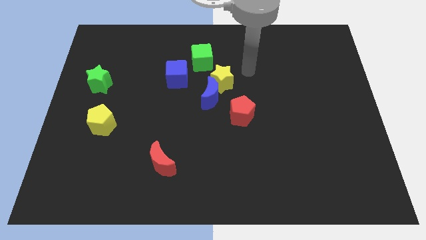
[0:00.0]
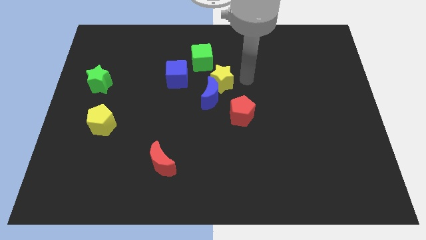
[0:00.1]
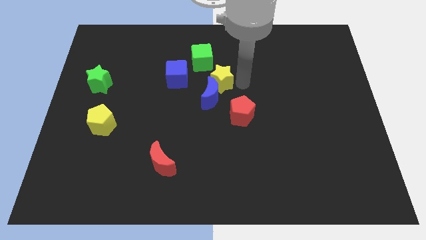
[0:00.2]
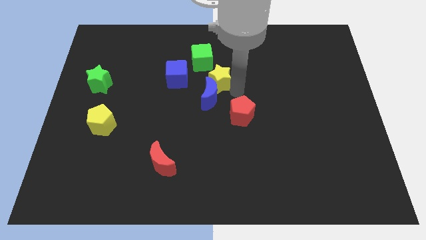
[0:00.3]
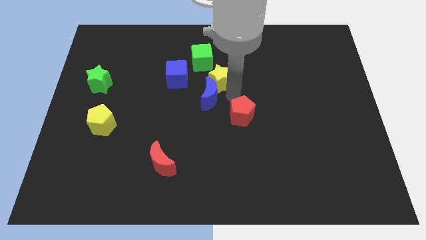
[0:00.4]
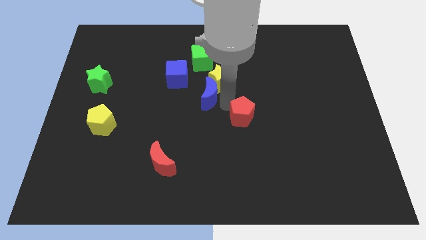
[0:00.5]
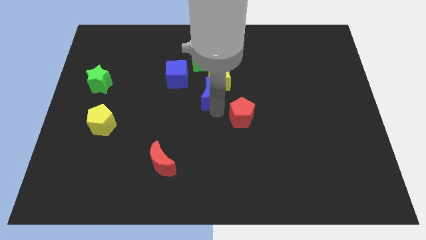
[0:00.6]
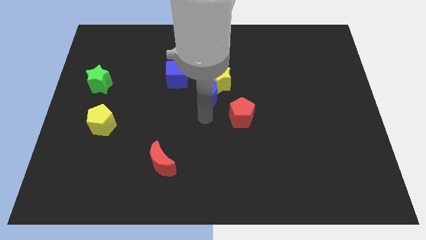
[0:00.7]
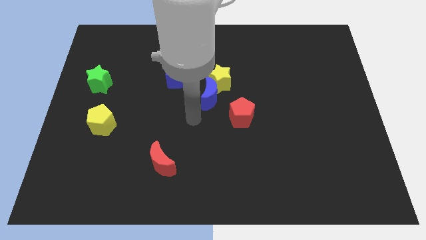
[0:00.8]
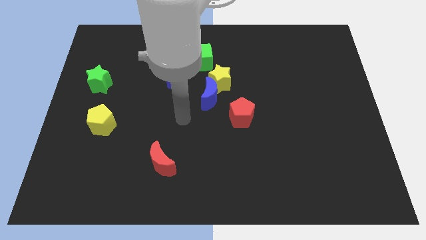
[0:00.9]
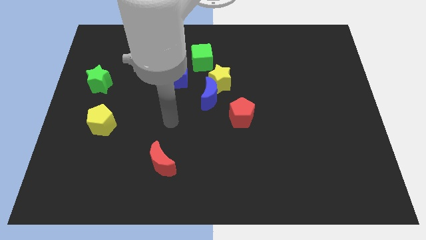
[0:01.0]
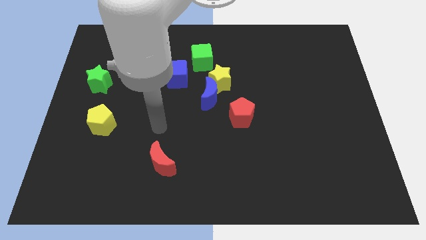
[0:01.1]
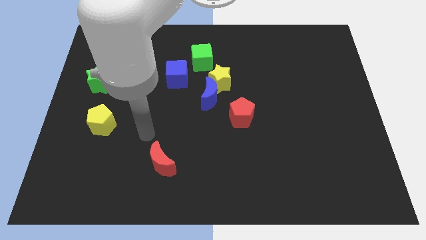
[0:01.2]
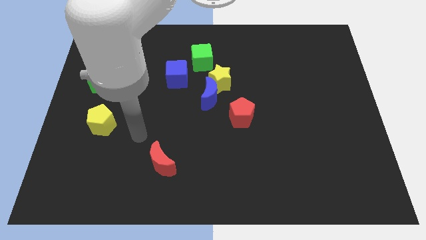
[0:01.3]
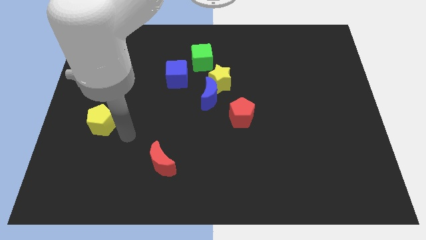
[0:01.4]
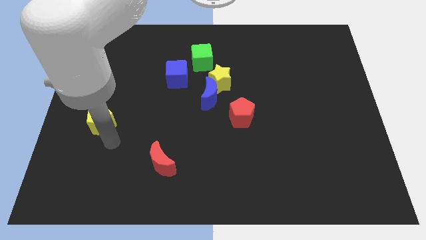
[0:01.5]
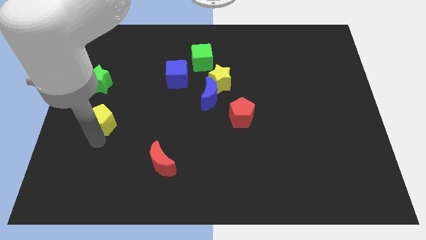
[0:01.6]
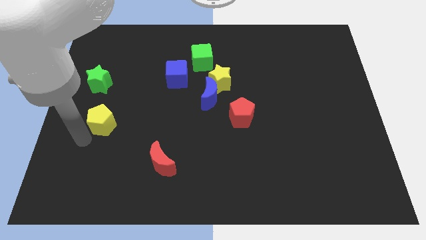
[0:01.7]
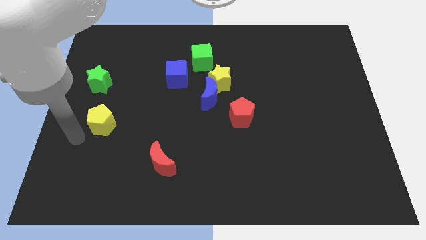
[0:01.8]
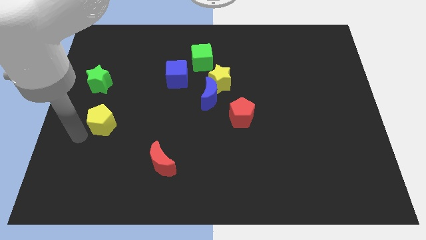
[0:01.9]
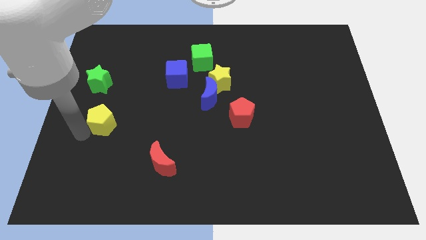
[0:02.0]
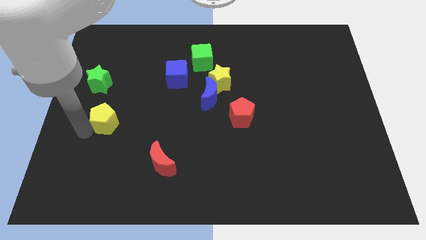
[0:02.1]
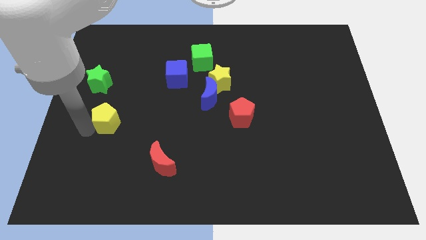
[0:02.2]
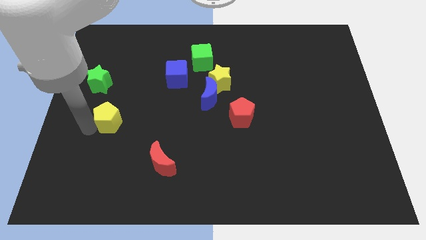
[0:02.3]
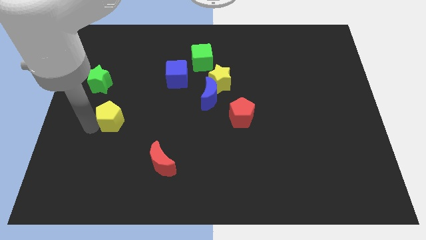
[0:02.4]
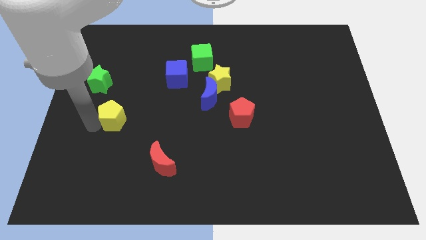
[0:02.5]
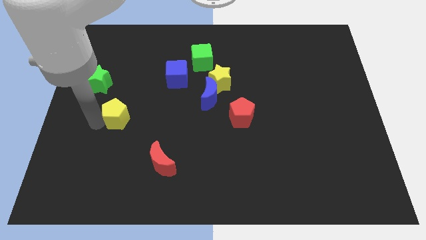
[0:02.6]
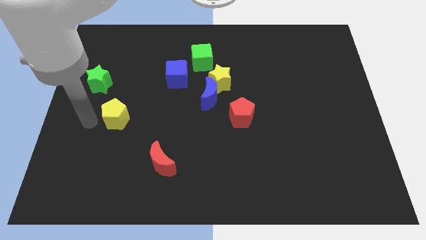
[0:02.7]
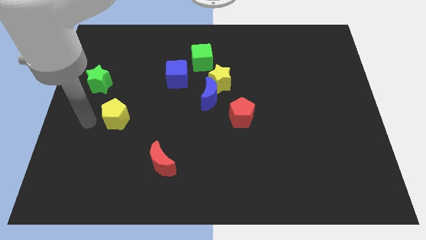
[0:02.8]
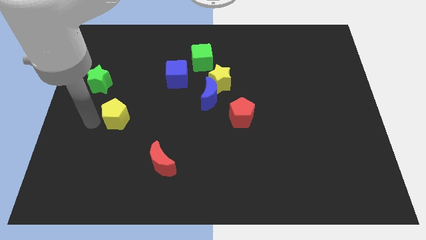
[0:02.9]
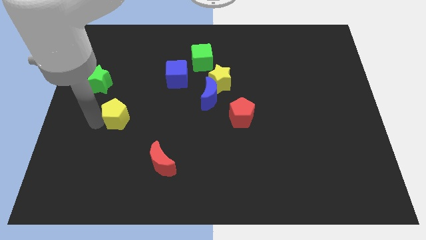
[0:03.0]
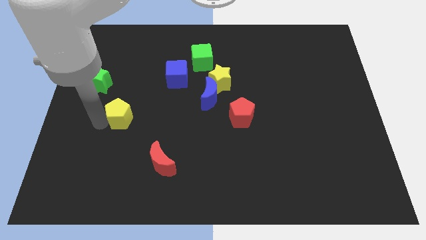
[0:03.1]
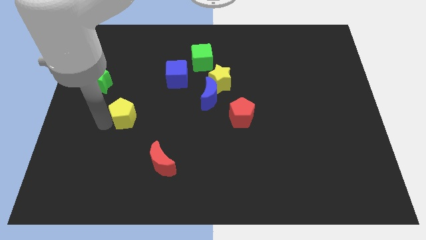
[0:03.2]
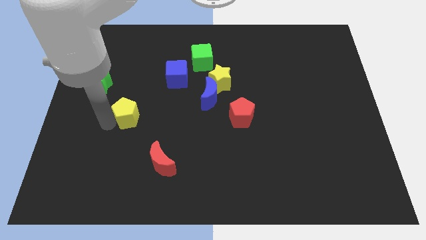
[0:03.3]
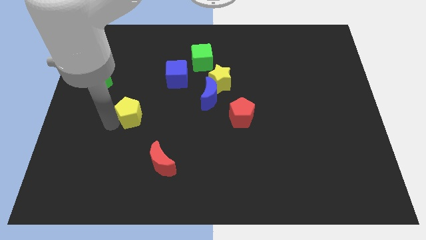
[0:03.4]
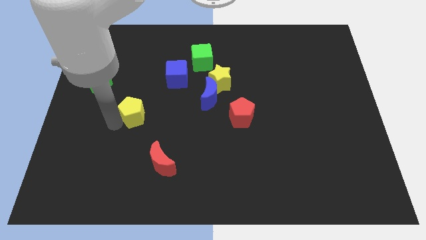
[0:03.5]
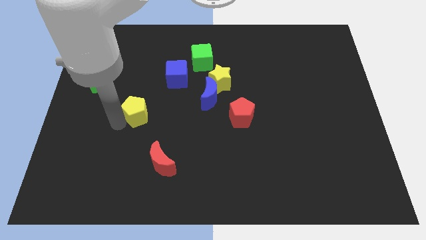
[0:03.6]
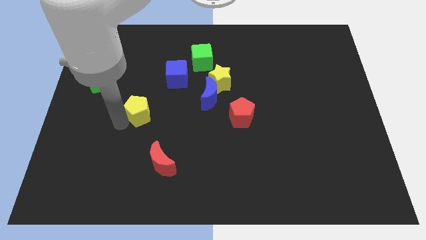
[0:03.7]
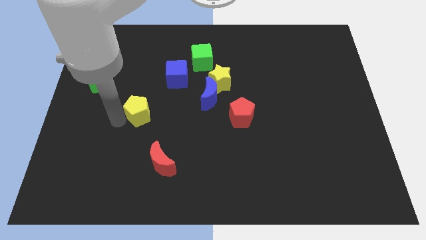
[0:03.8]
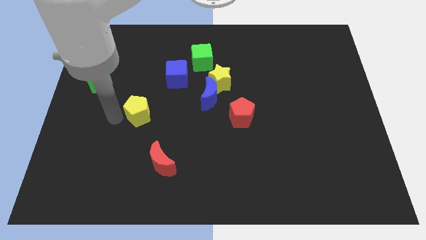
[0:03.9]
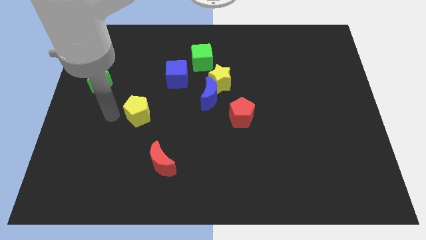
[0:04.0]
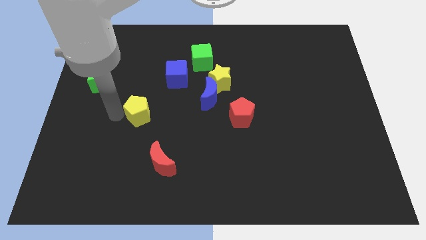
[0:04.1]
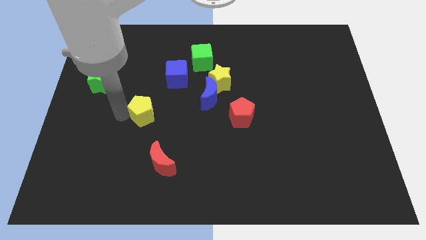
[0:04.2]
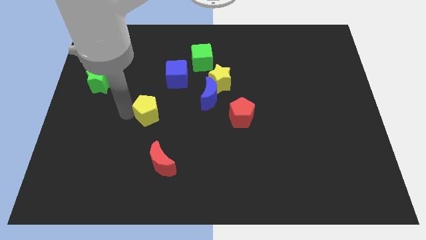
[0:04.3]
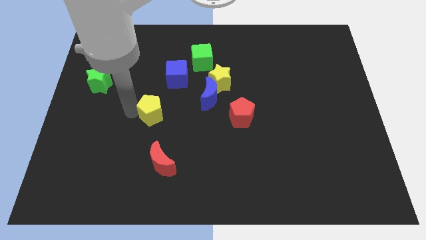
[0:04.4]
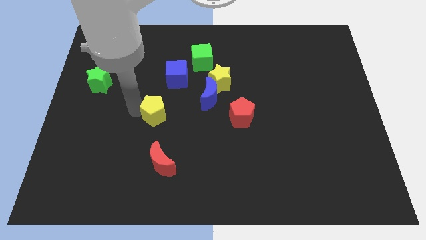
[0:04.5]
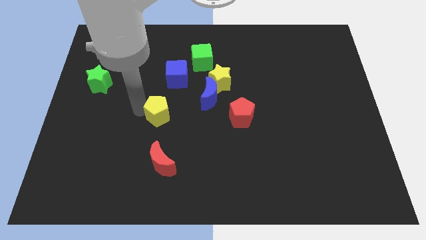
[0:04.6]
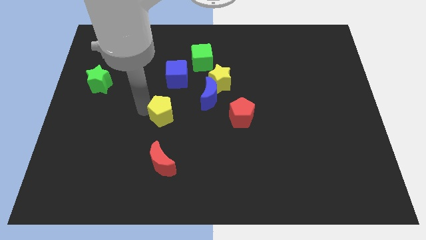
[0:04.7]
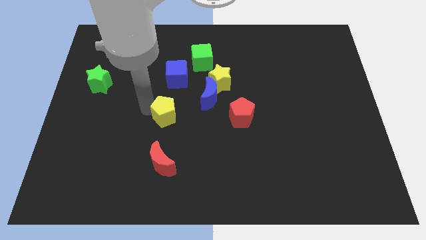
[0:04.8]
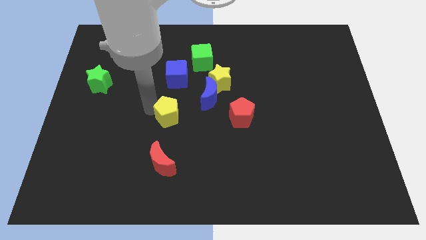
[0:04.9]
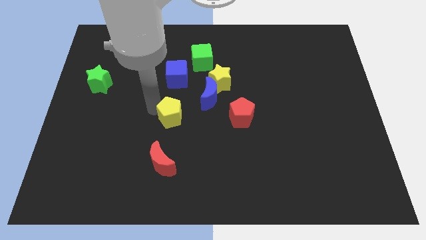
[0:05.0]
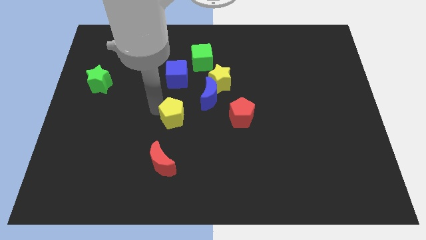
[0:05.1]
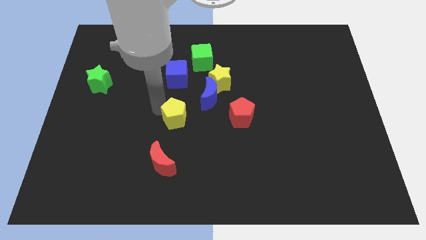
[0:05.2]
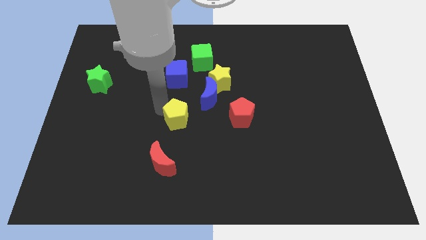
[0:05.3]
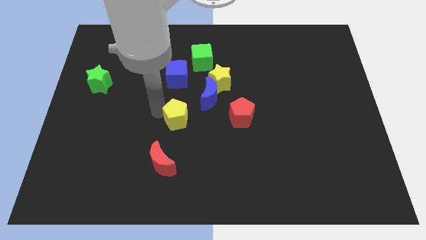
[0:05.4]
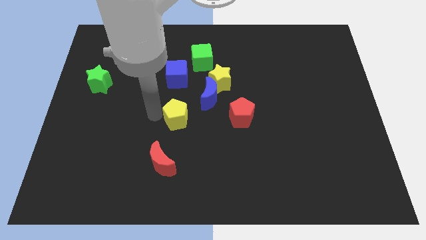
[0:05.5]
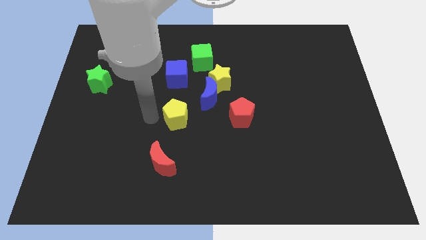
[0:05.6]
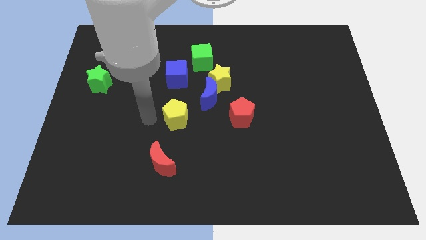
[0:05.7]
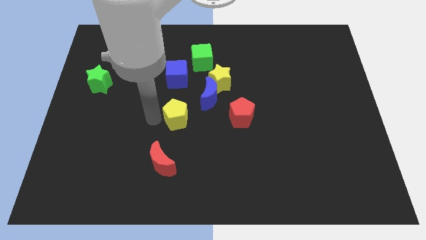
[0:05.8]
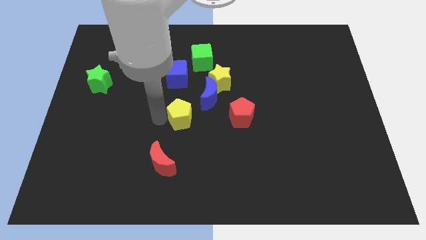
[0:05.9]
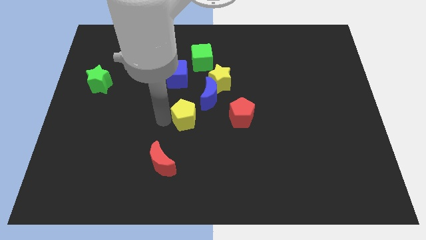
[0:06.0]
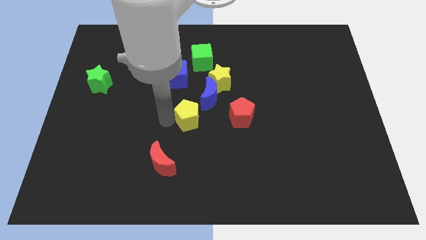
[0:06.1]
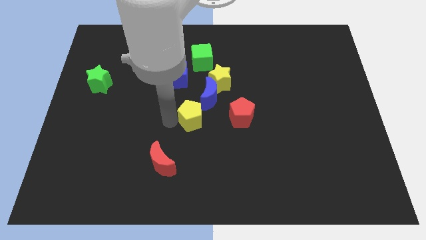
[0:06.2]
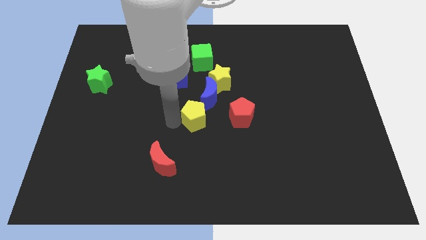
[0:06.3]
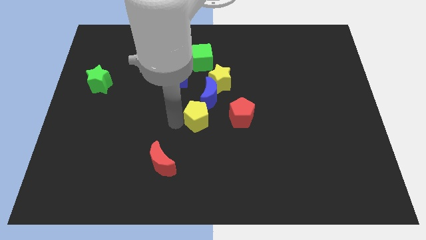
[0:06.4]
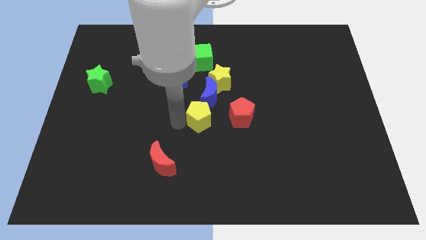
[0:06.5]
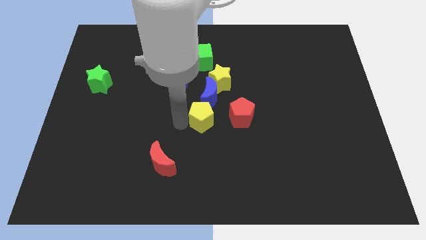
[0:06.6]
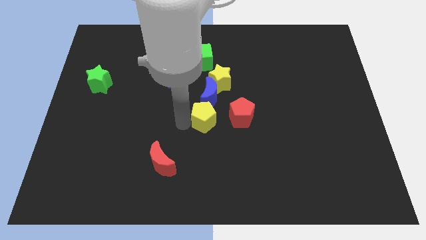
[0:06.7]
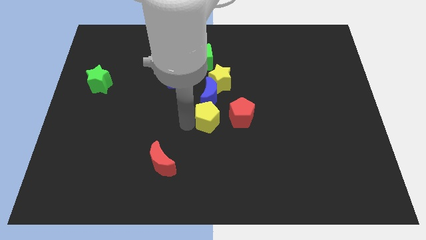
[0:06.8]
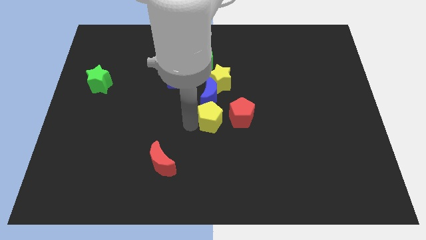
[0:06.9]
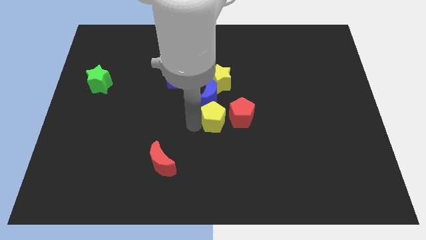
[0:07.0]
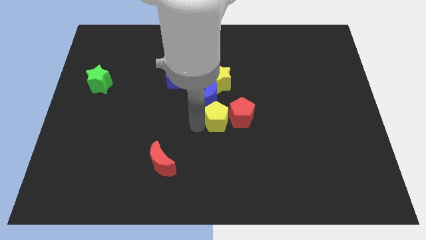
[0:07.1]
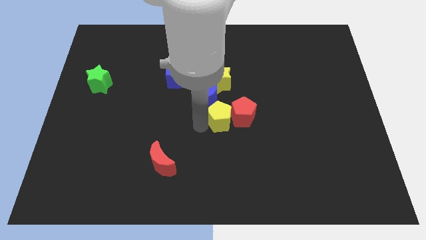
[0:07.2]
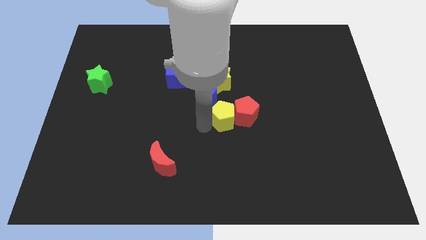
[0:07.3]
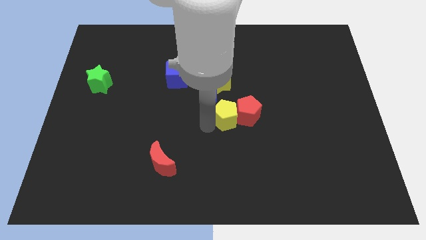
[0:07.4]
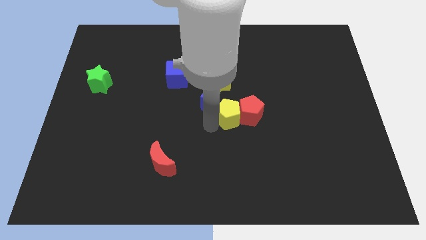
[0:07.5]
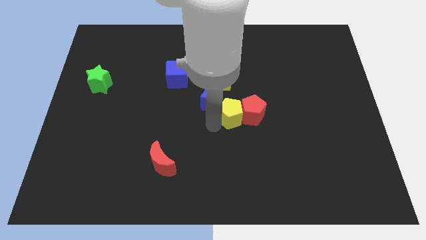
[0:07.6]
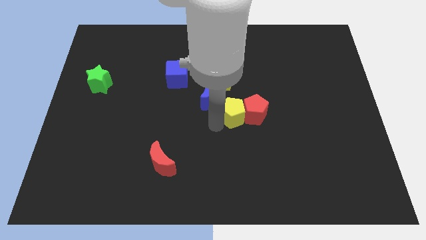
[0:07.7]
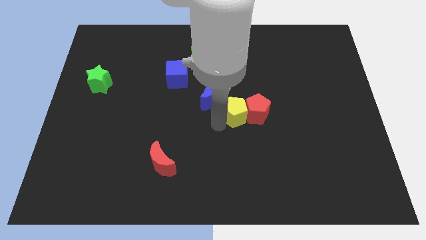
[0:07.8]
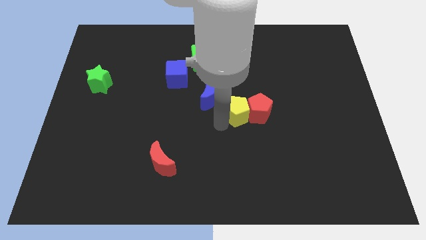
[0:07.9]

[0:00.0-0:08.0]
slide the yellow pentagon to the right of the blue moon
